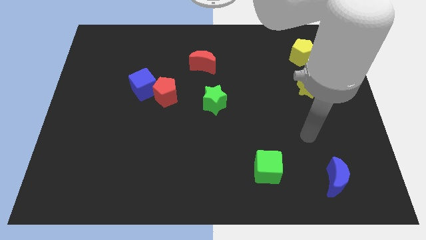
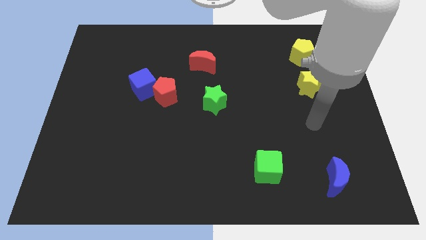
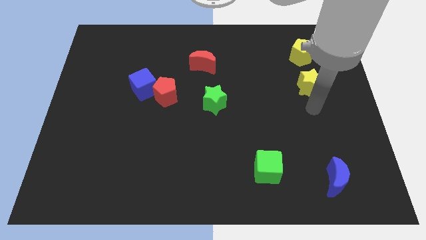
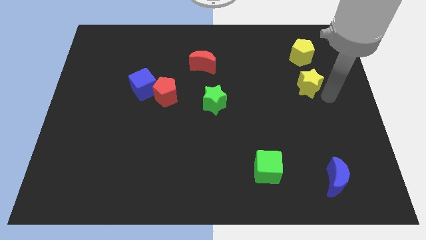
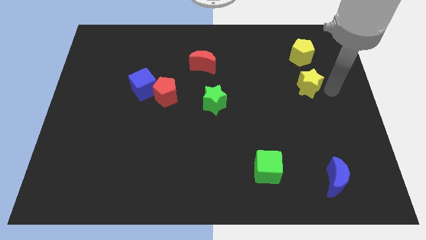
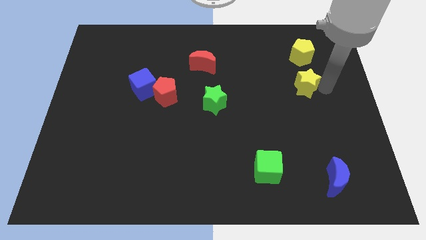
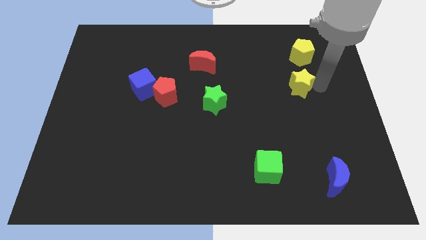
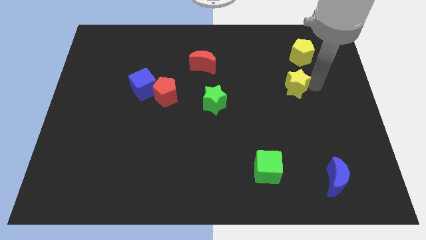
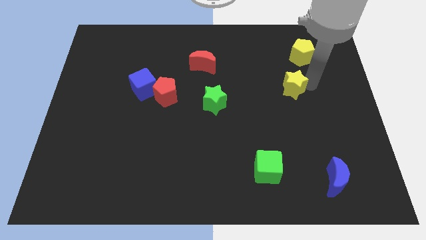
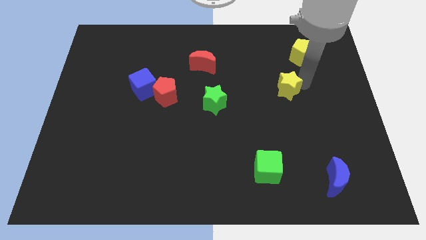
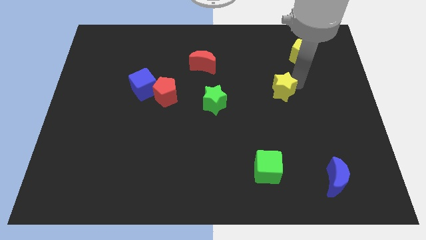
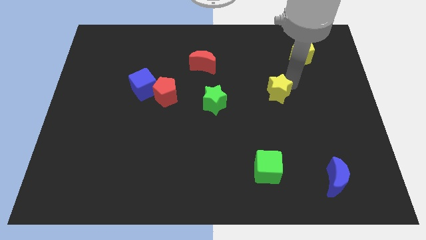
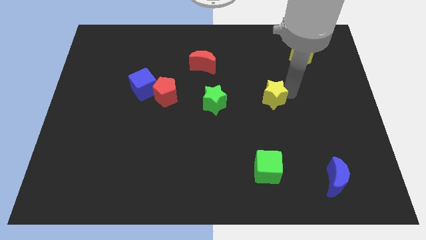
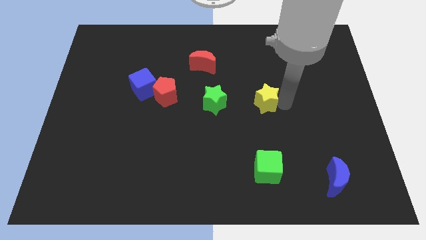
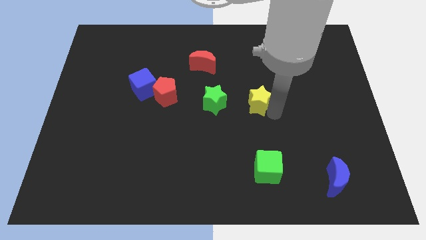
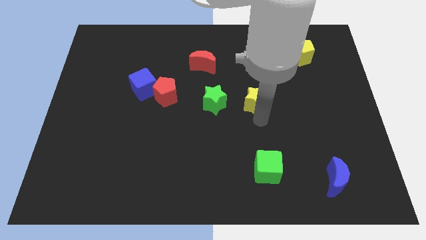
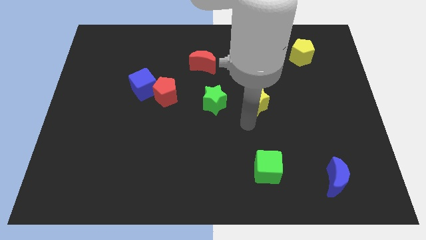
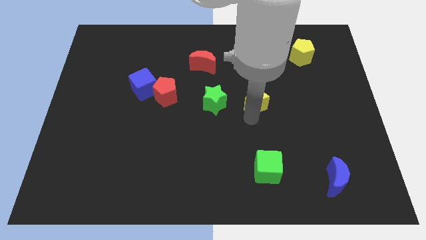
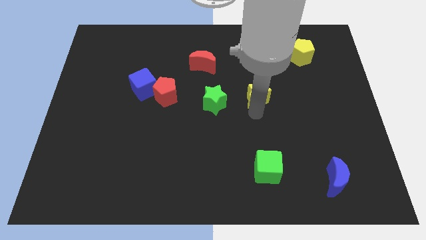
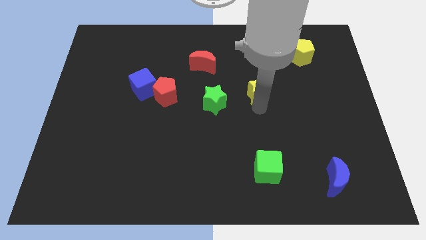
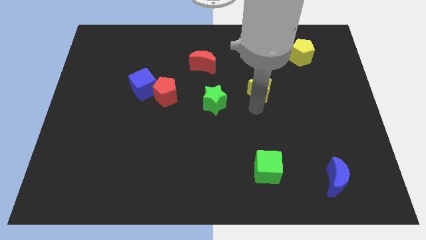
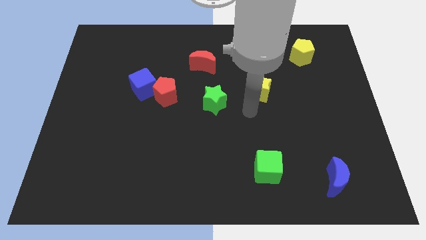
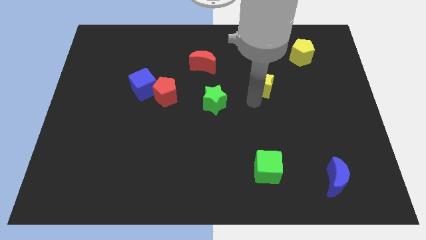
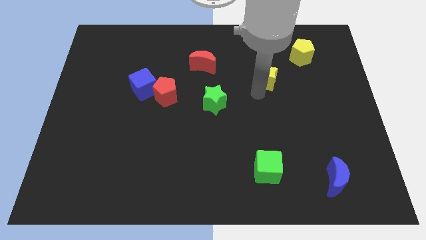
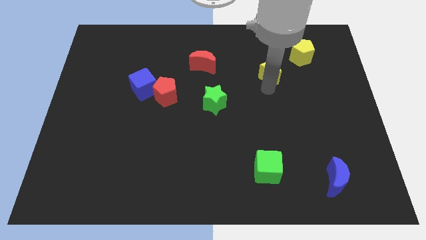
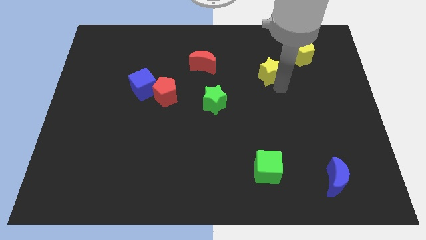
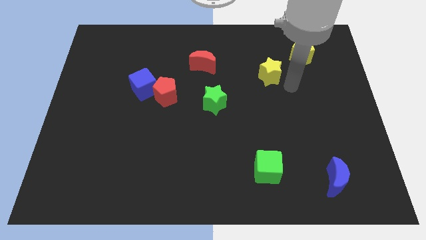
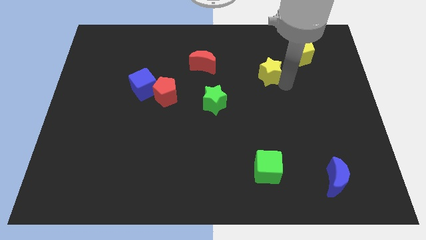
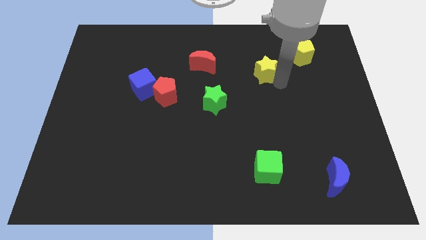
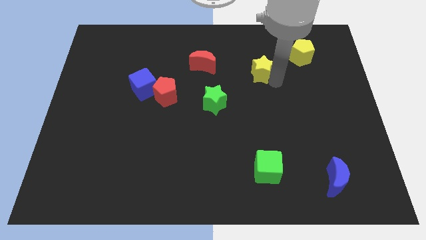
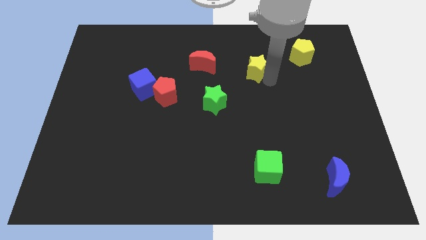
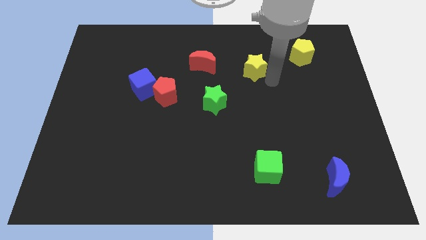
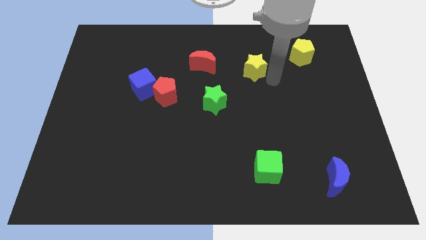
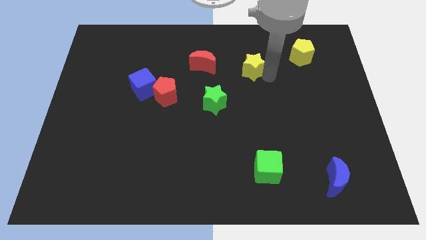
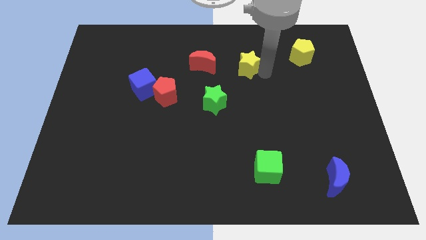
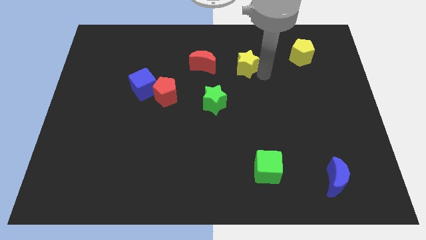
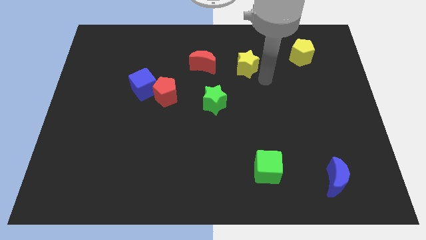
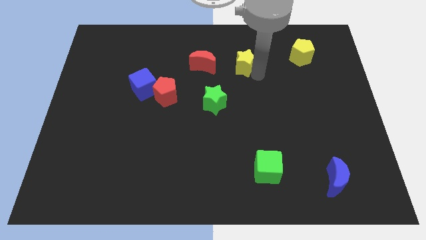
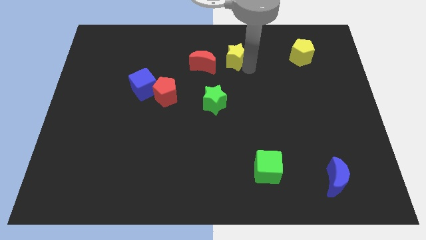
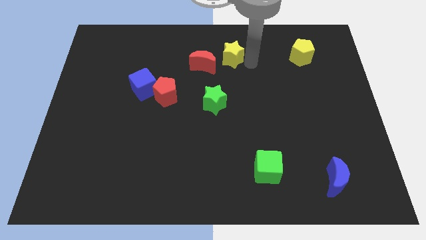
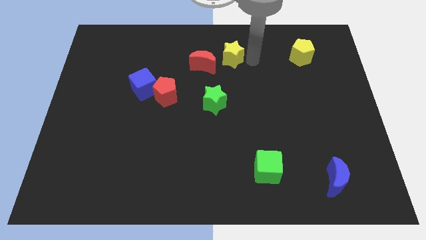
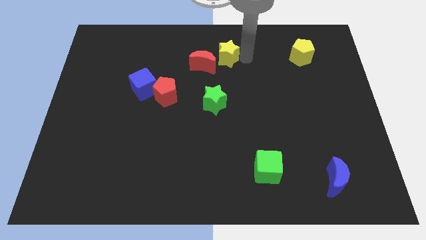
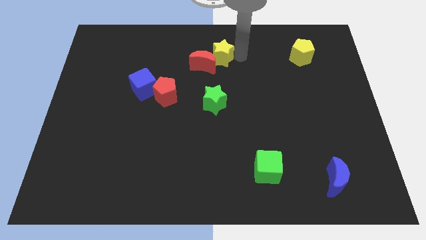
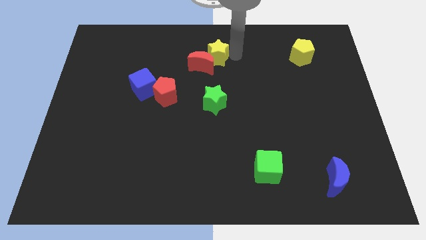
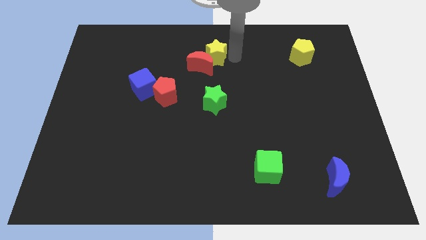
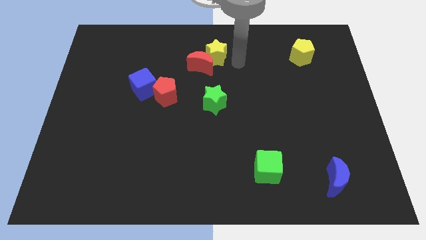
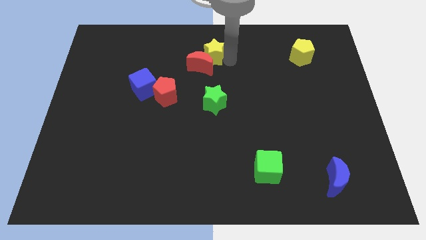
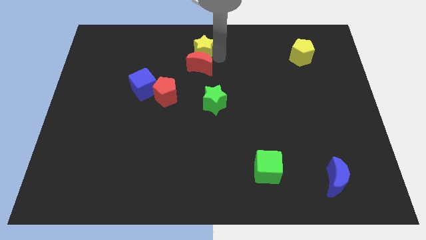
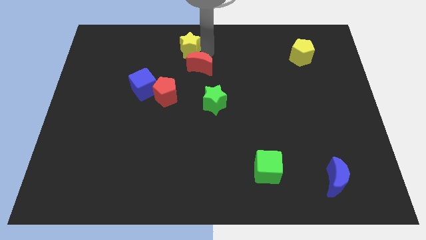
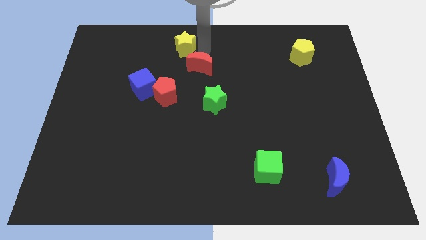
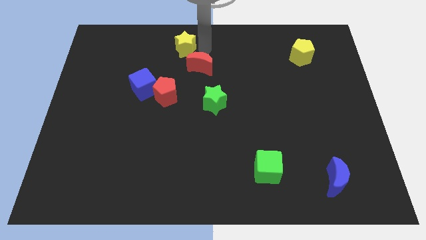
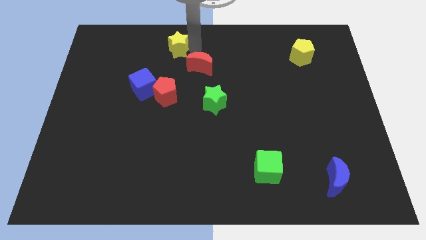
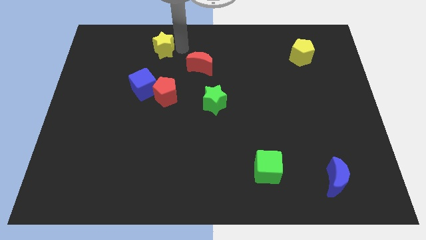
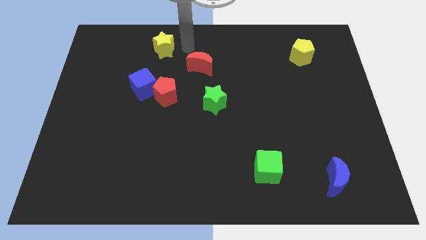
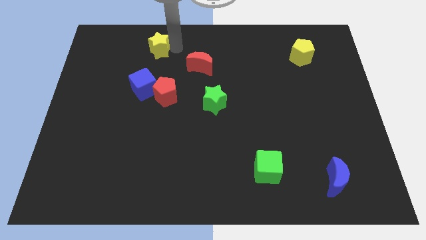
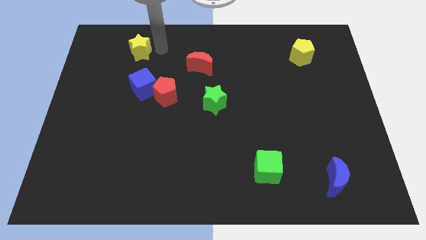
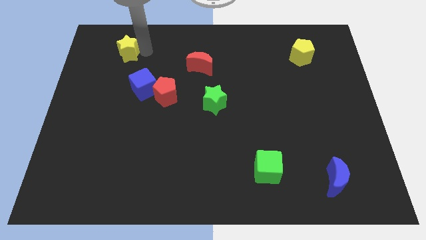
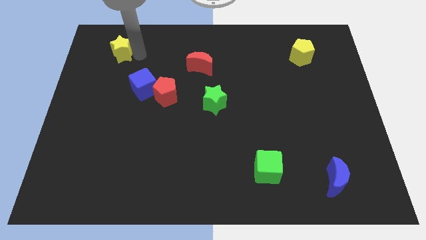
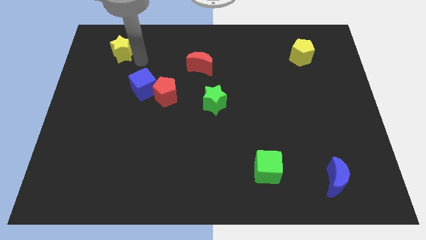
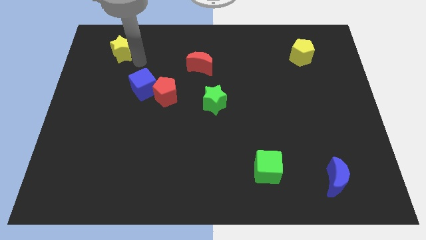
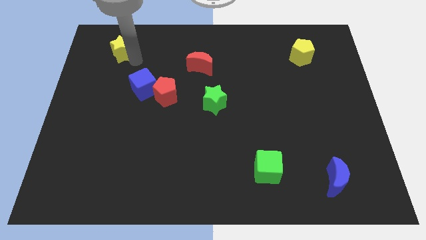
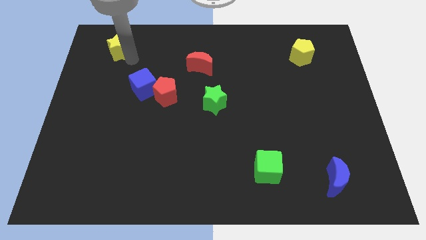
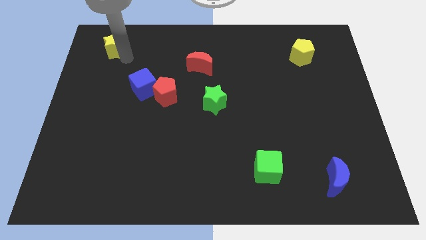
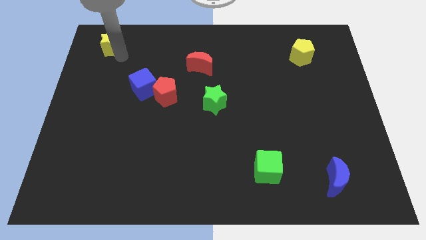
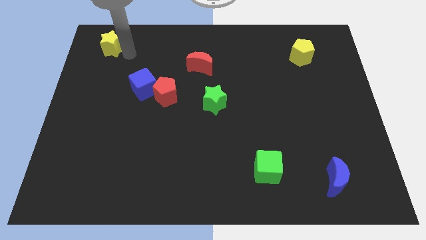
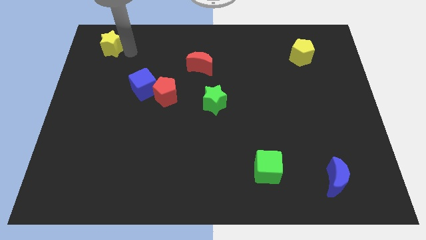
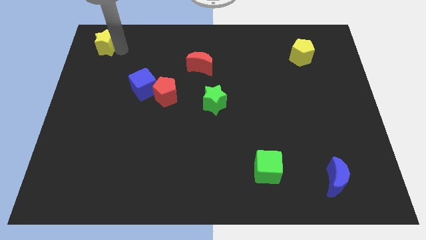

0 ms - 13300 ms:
push the yellow star to the top left of the board
